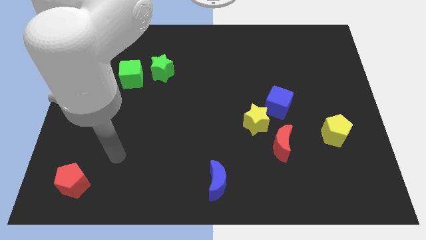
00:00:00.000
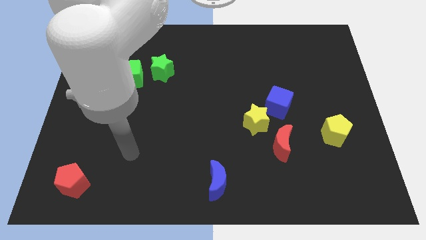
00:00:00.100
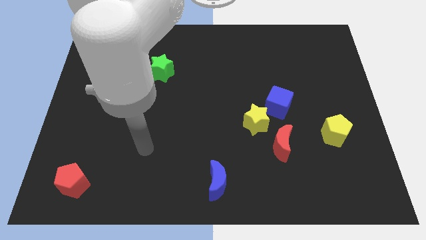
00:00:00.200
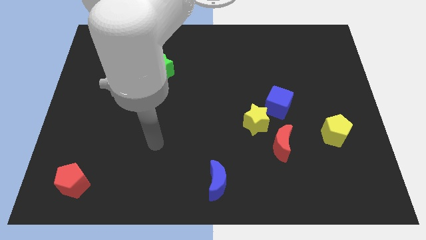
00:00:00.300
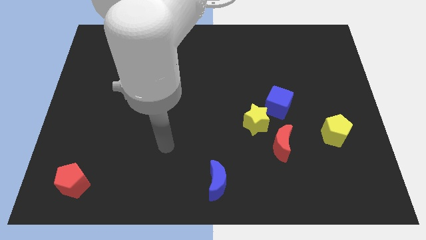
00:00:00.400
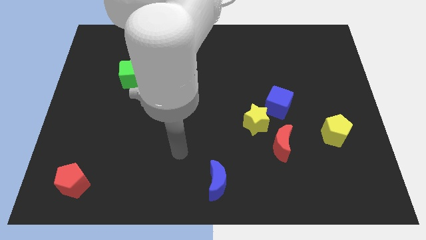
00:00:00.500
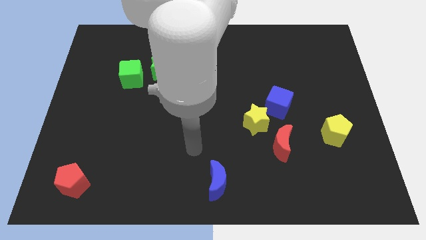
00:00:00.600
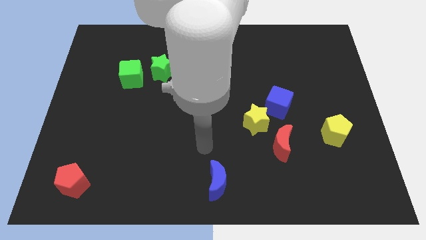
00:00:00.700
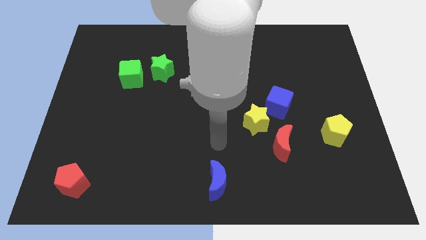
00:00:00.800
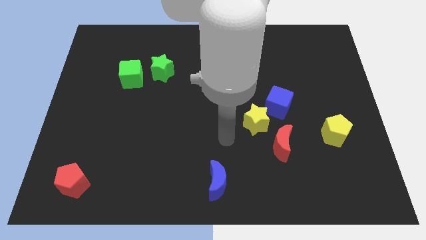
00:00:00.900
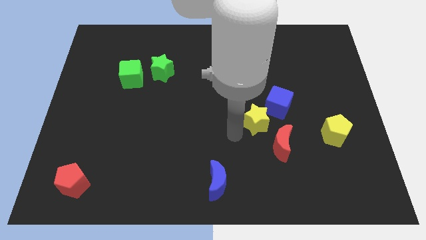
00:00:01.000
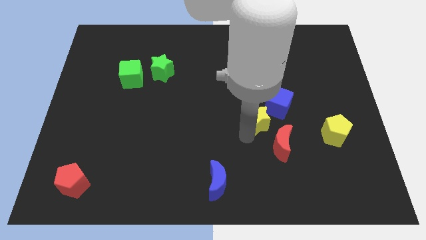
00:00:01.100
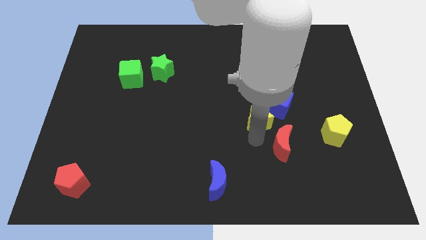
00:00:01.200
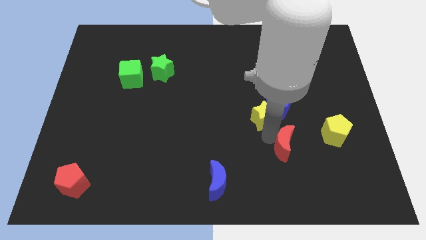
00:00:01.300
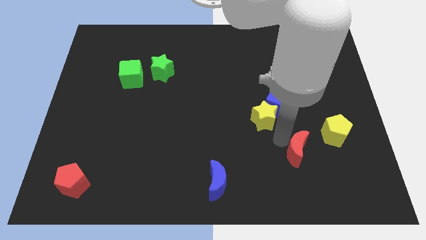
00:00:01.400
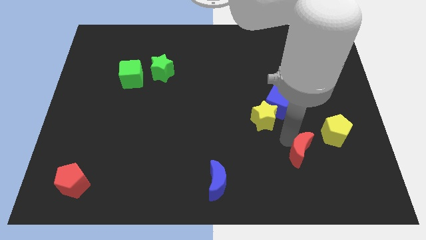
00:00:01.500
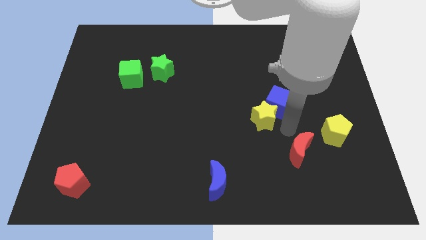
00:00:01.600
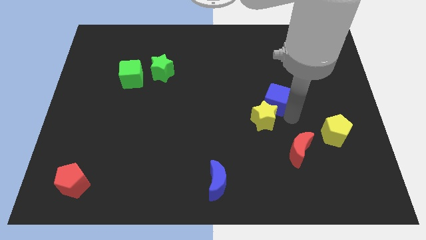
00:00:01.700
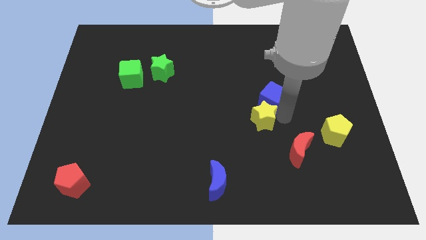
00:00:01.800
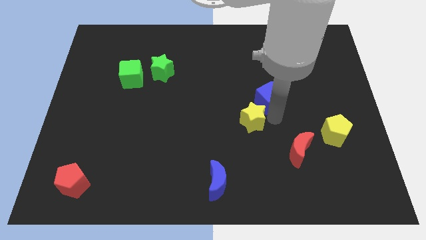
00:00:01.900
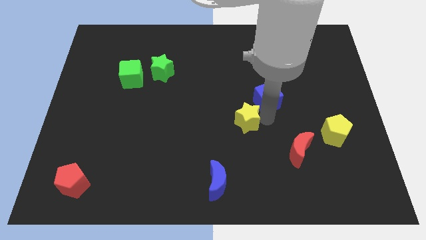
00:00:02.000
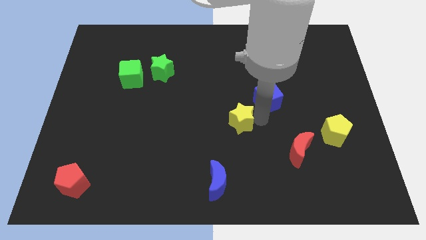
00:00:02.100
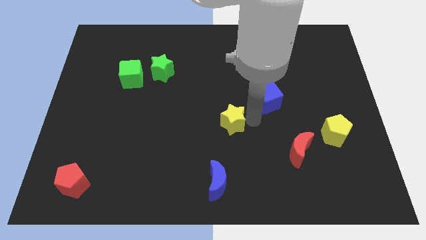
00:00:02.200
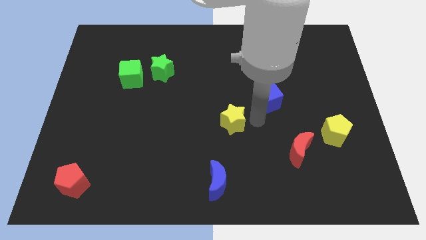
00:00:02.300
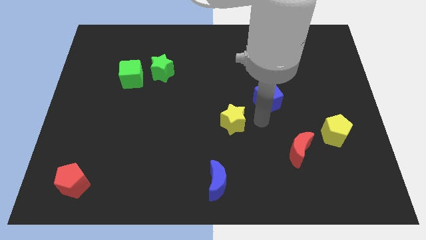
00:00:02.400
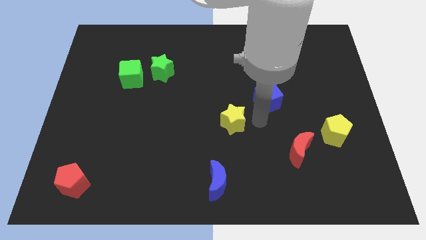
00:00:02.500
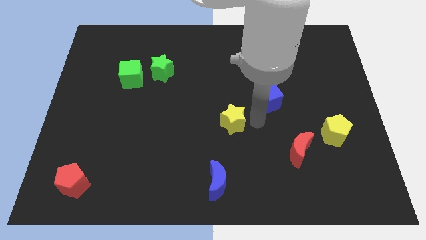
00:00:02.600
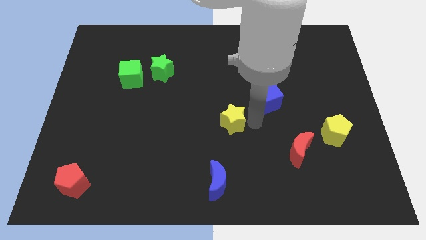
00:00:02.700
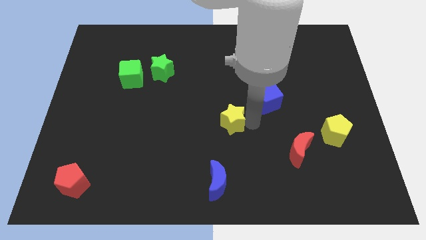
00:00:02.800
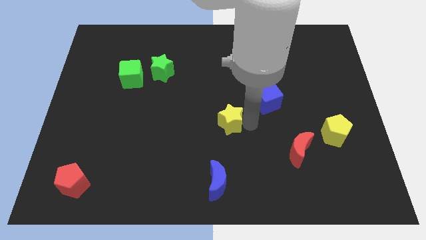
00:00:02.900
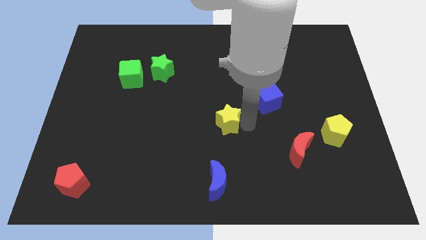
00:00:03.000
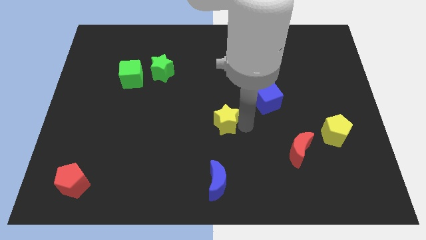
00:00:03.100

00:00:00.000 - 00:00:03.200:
slightly move the yellow star to the left

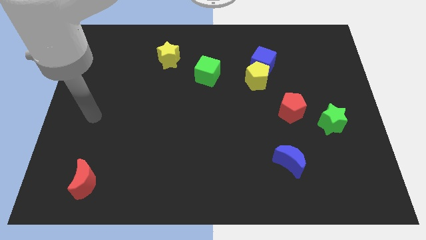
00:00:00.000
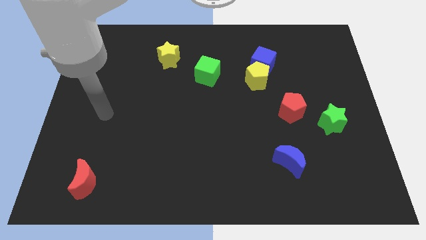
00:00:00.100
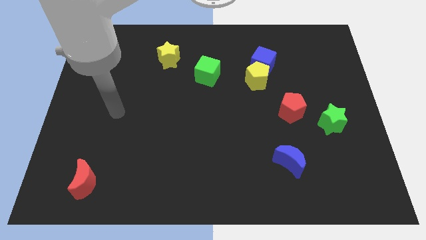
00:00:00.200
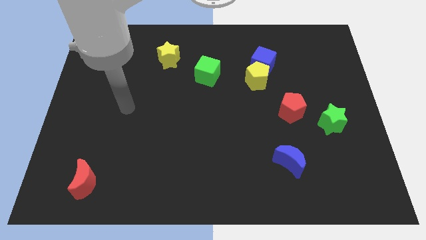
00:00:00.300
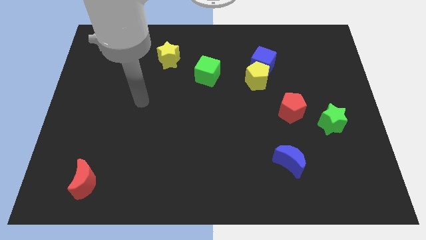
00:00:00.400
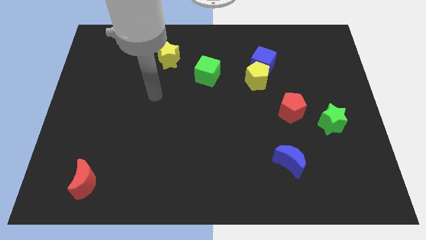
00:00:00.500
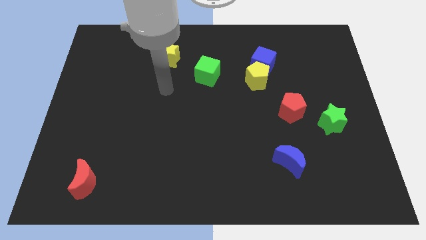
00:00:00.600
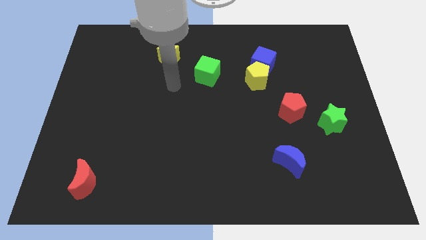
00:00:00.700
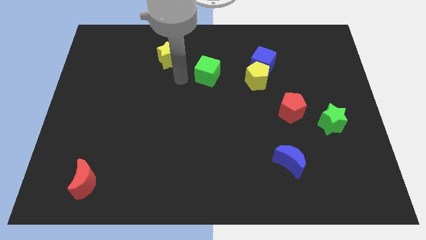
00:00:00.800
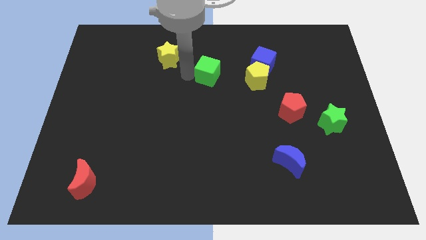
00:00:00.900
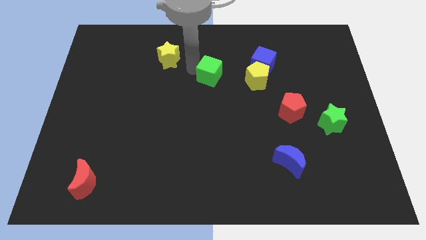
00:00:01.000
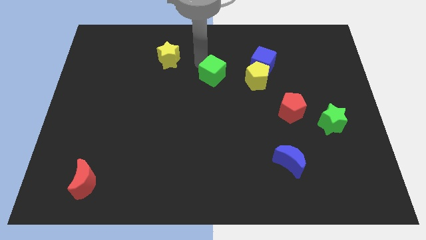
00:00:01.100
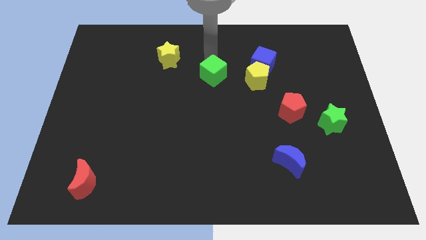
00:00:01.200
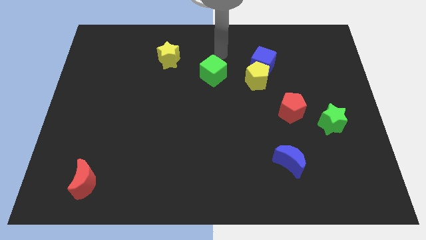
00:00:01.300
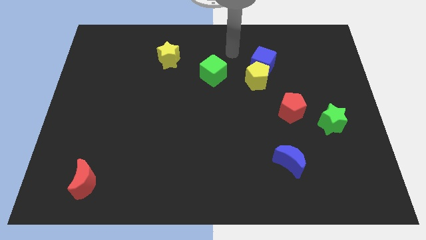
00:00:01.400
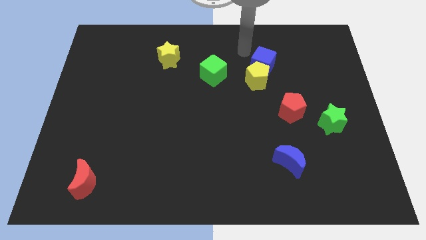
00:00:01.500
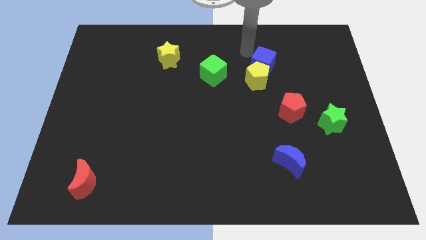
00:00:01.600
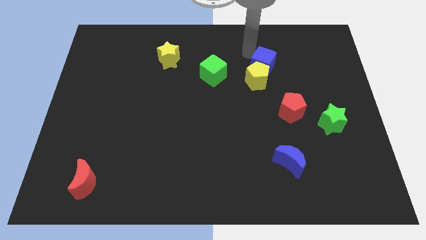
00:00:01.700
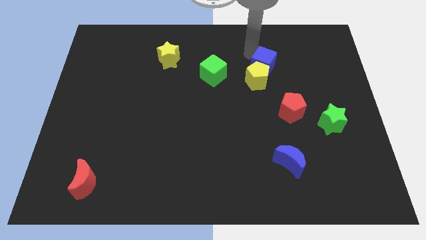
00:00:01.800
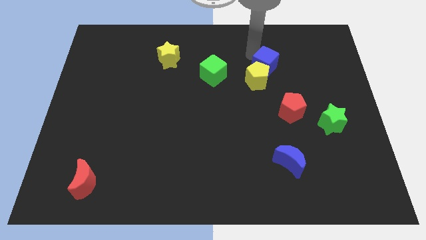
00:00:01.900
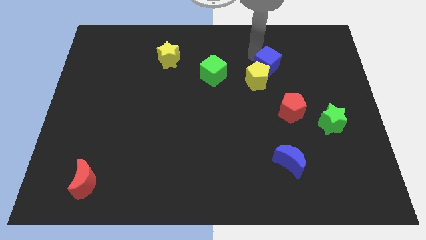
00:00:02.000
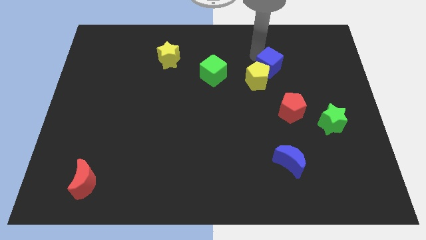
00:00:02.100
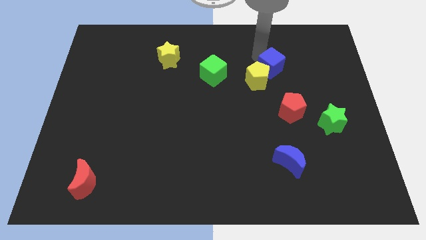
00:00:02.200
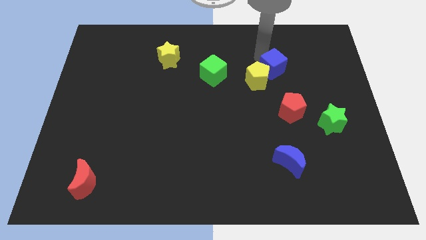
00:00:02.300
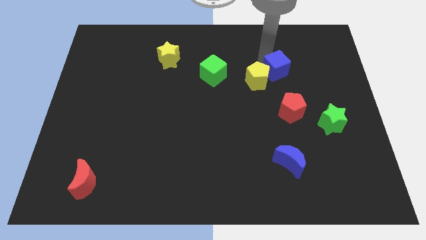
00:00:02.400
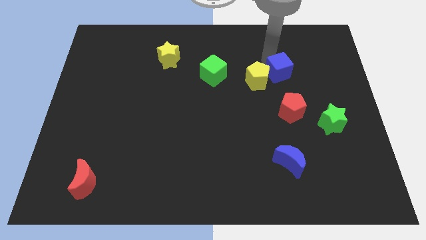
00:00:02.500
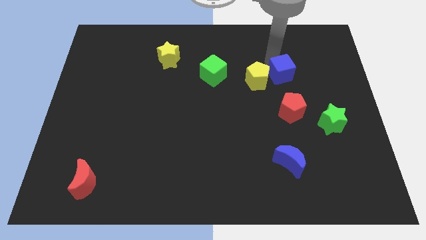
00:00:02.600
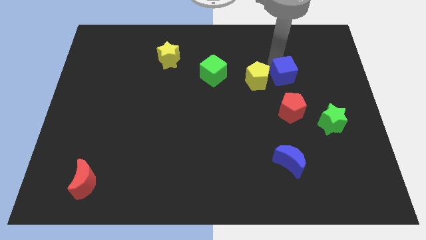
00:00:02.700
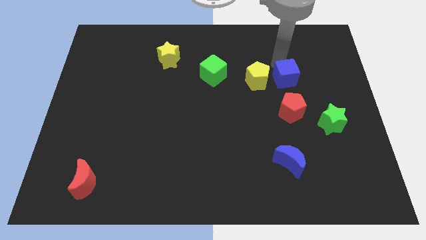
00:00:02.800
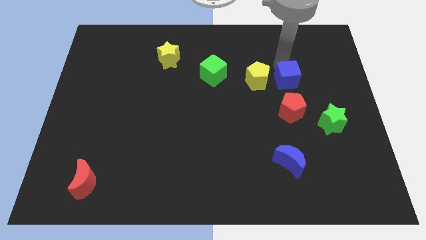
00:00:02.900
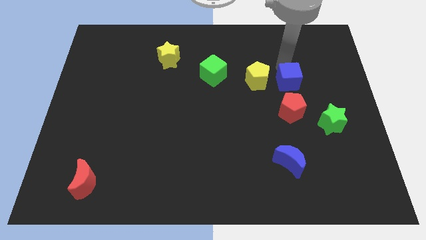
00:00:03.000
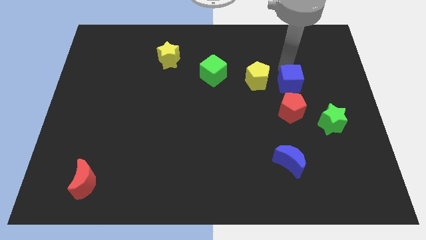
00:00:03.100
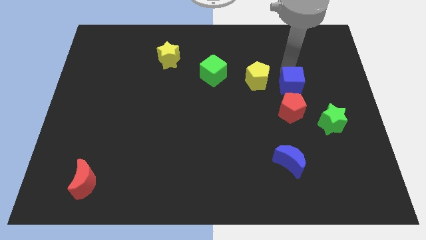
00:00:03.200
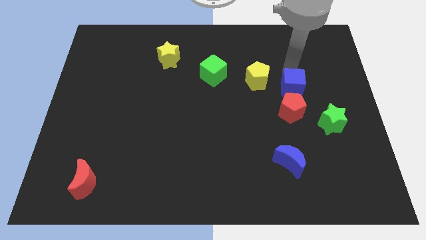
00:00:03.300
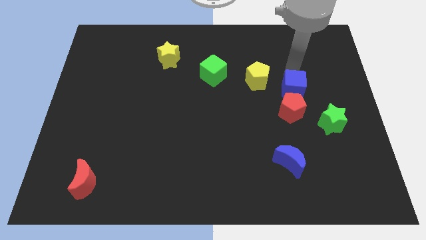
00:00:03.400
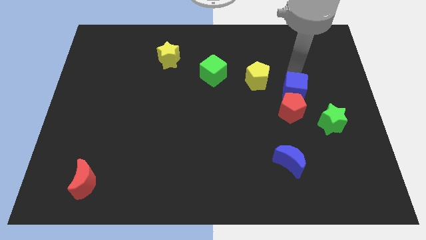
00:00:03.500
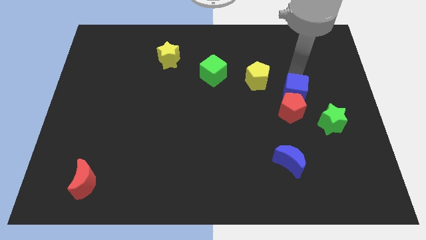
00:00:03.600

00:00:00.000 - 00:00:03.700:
slightly slide the blue cube down

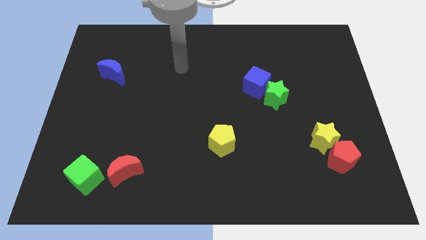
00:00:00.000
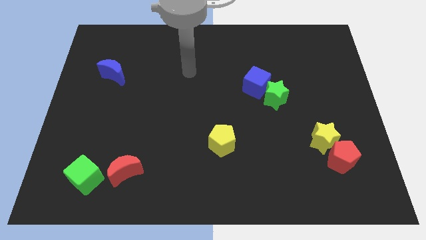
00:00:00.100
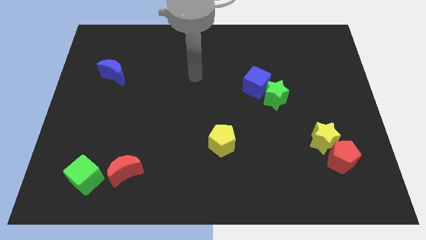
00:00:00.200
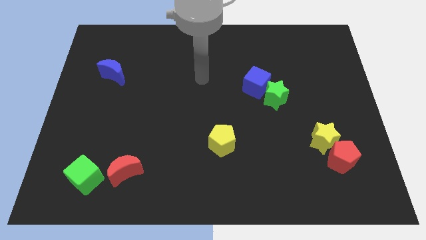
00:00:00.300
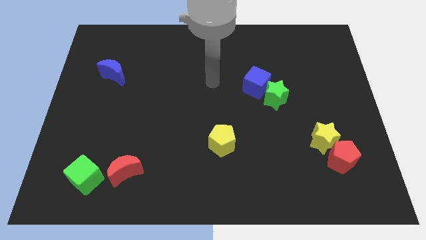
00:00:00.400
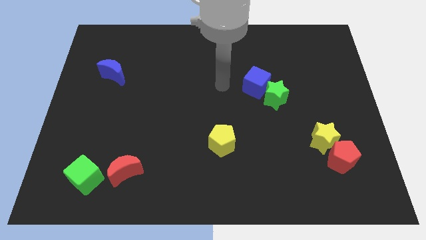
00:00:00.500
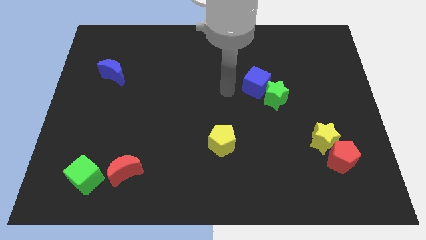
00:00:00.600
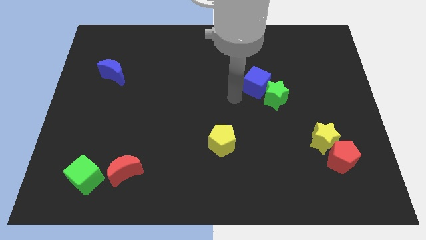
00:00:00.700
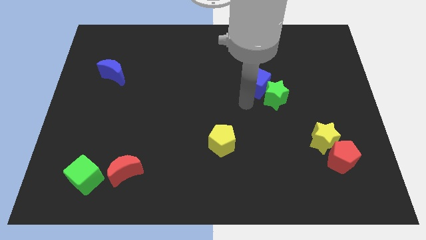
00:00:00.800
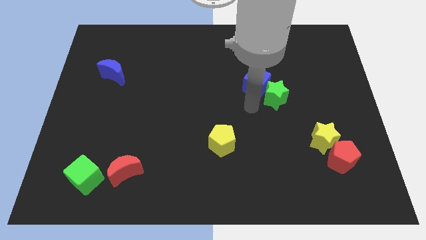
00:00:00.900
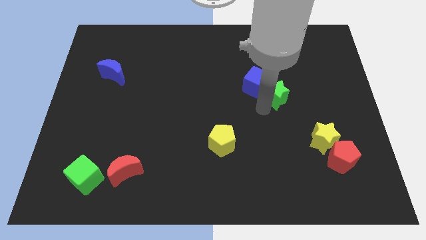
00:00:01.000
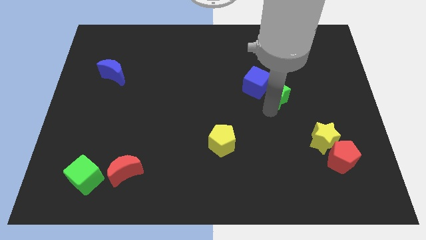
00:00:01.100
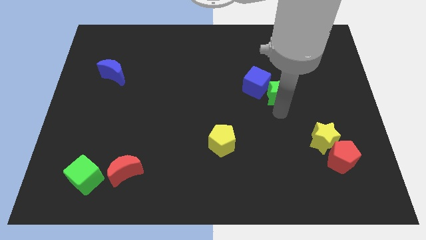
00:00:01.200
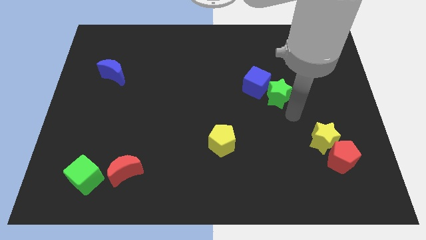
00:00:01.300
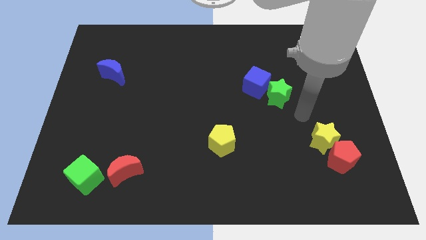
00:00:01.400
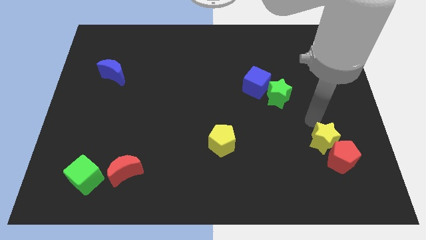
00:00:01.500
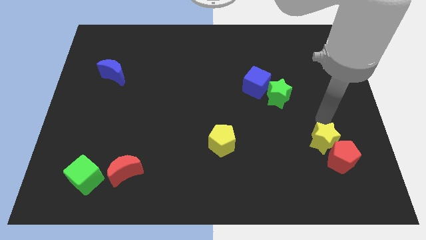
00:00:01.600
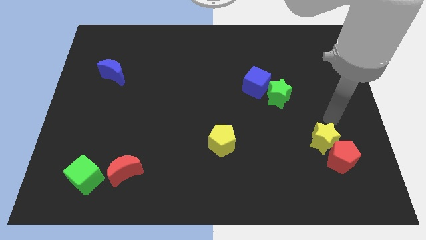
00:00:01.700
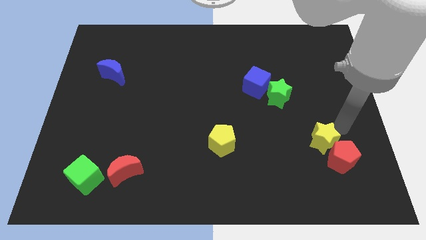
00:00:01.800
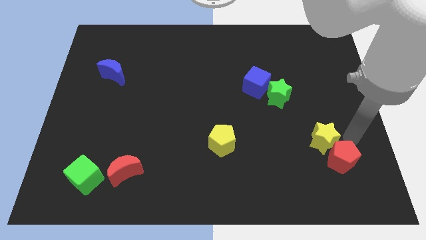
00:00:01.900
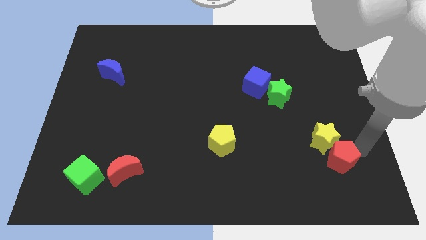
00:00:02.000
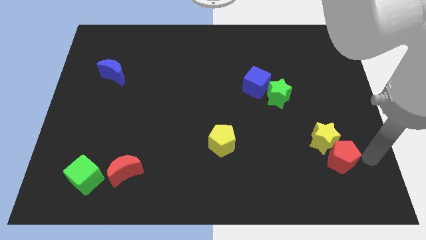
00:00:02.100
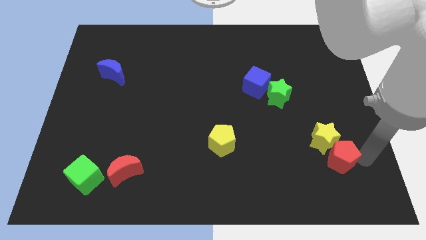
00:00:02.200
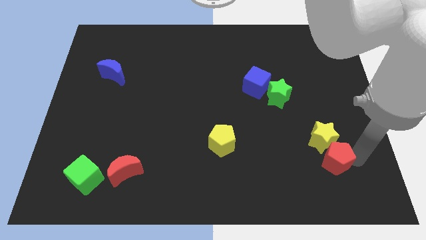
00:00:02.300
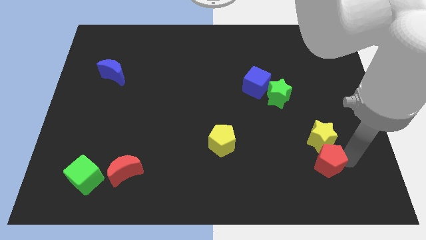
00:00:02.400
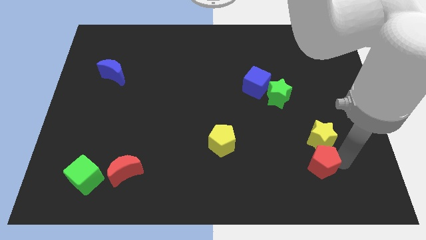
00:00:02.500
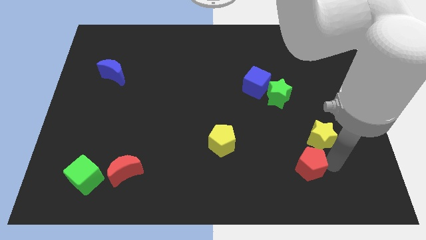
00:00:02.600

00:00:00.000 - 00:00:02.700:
move the red pentagon left a little
